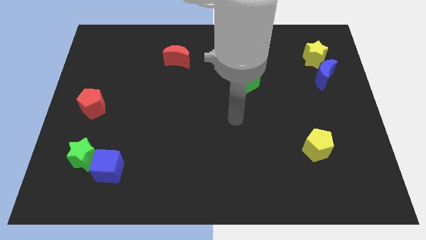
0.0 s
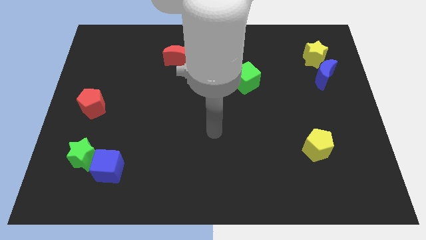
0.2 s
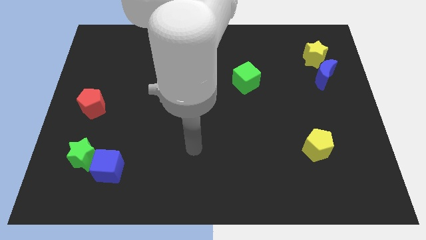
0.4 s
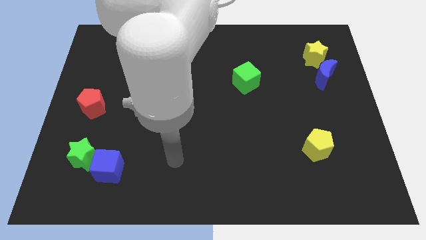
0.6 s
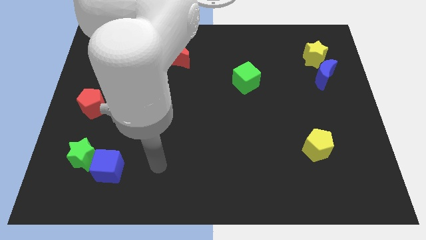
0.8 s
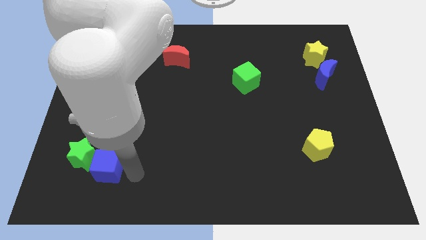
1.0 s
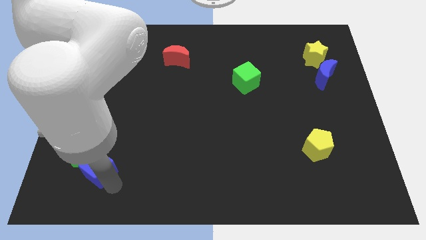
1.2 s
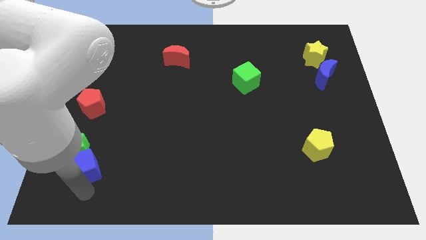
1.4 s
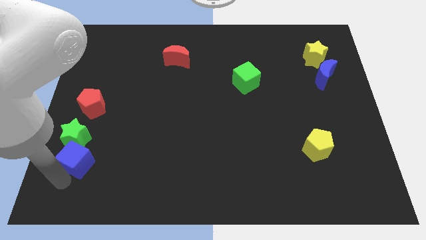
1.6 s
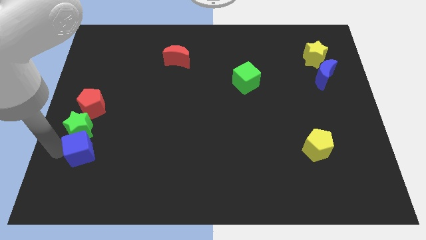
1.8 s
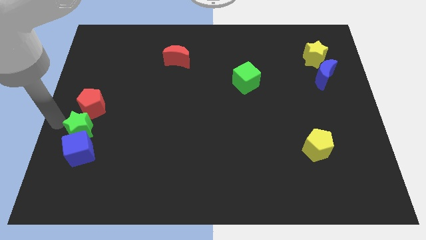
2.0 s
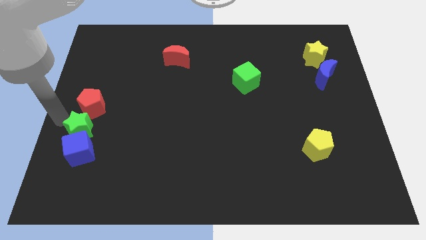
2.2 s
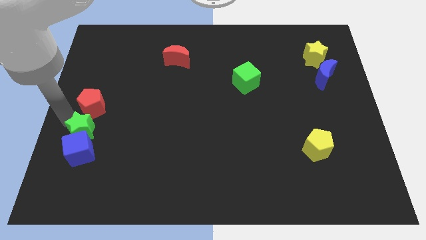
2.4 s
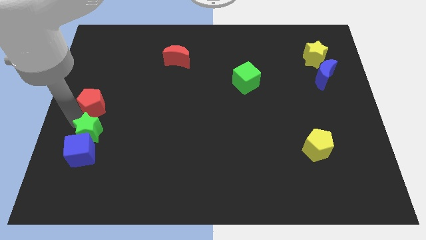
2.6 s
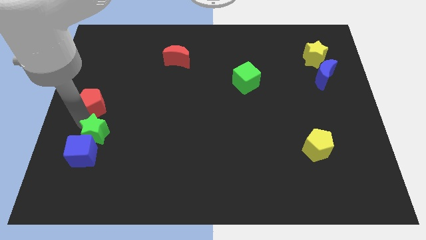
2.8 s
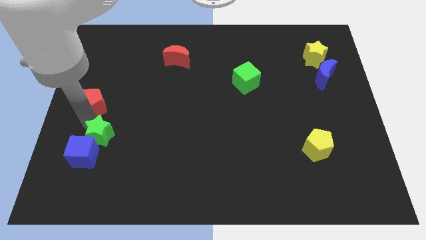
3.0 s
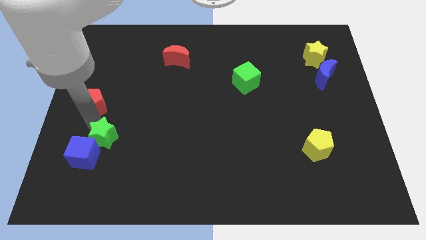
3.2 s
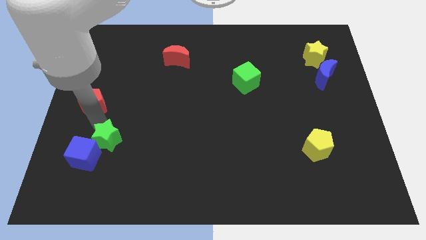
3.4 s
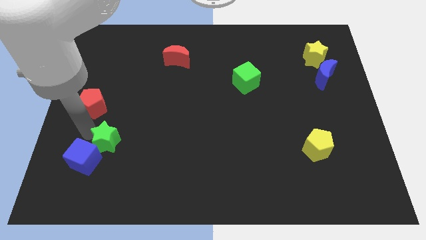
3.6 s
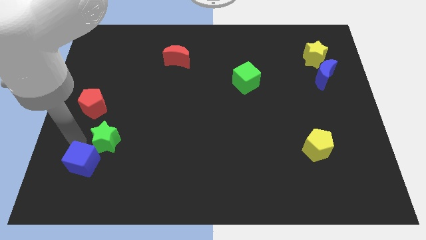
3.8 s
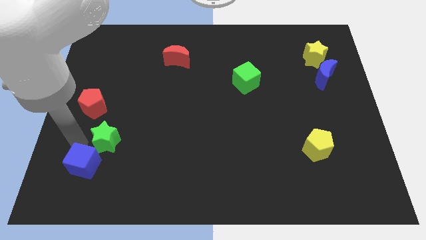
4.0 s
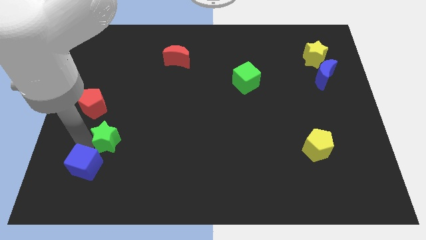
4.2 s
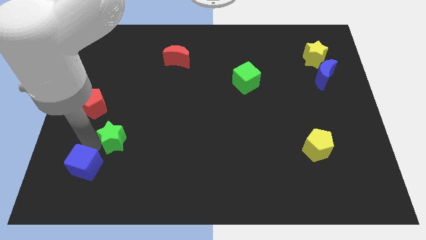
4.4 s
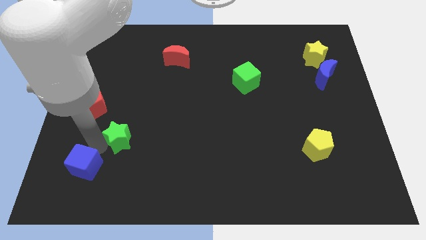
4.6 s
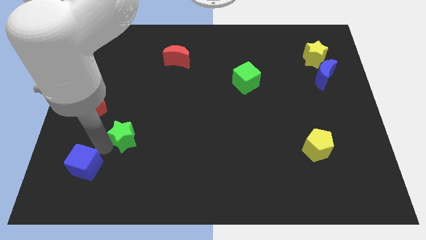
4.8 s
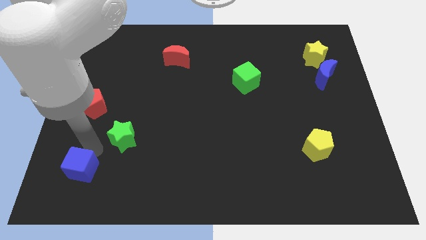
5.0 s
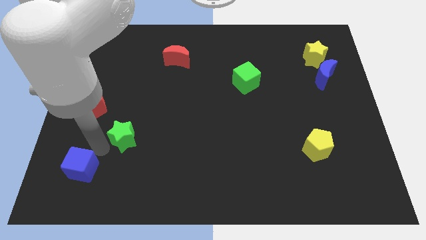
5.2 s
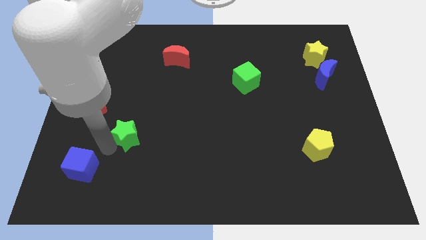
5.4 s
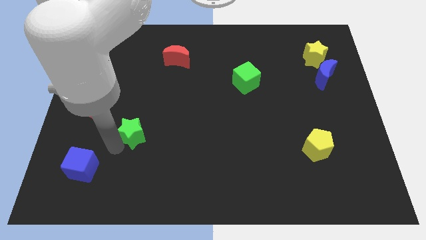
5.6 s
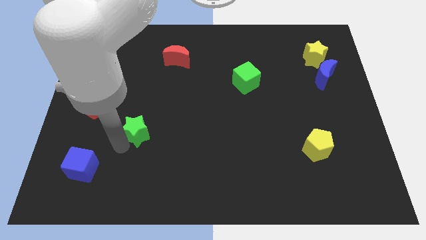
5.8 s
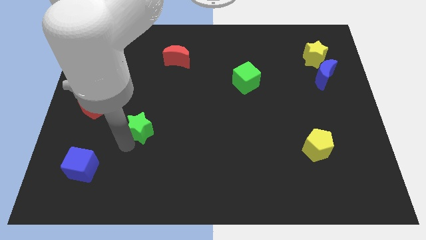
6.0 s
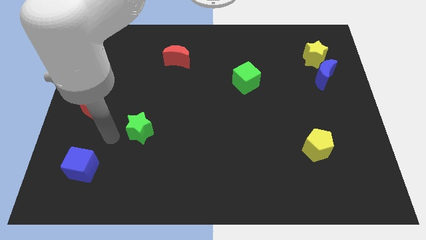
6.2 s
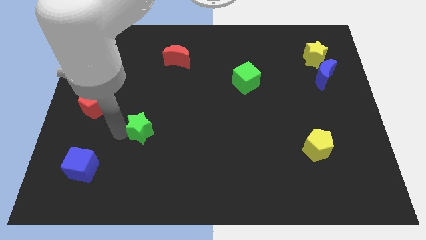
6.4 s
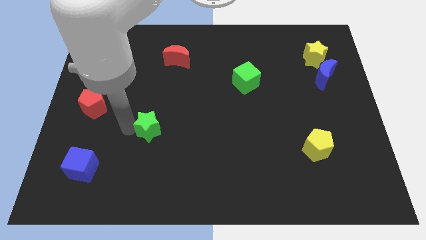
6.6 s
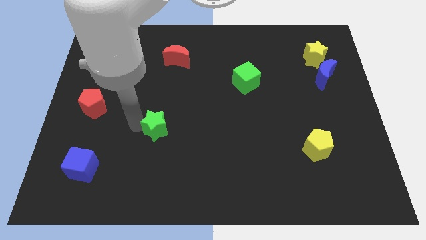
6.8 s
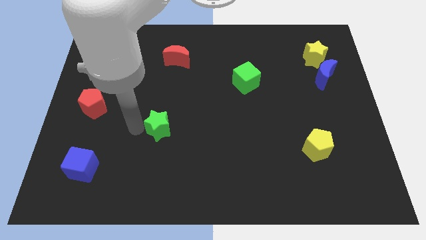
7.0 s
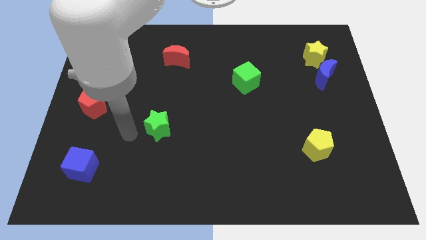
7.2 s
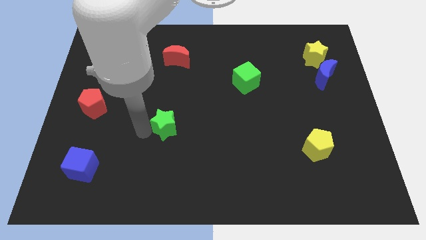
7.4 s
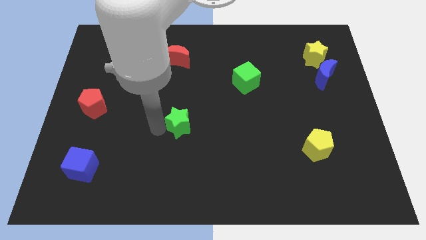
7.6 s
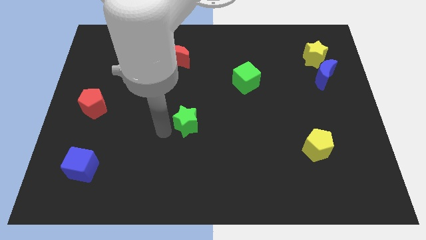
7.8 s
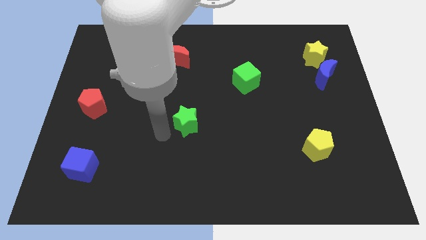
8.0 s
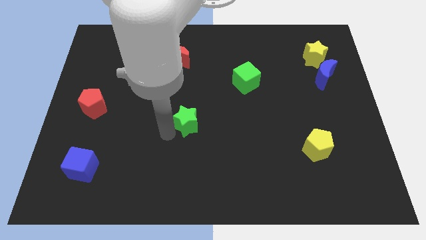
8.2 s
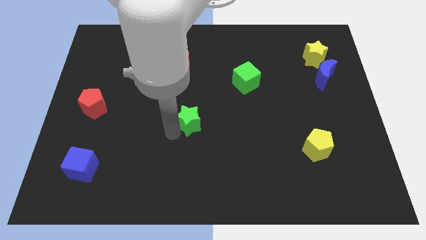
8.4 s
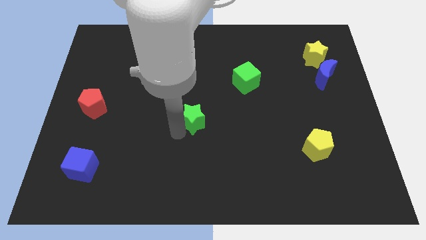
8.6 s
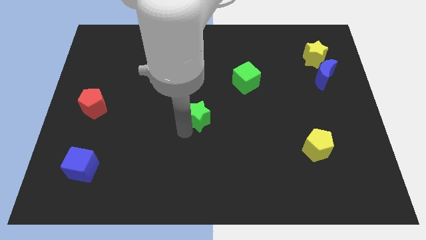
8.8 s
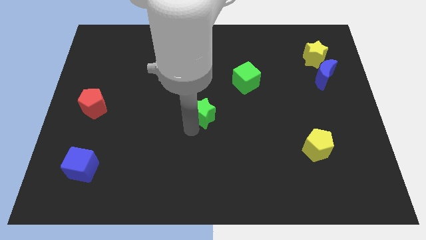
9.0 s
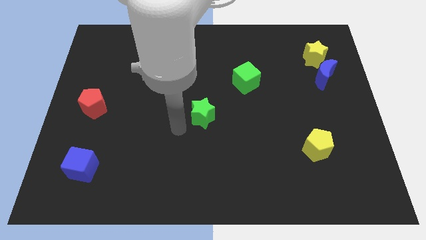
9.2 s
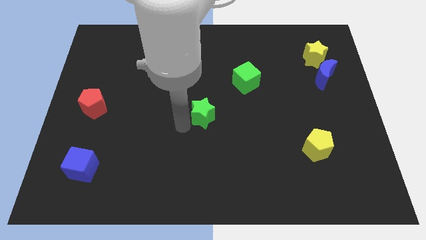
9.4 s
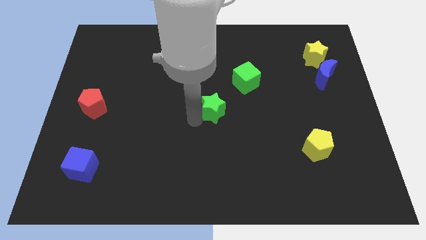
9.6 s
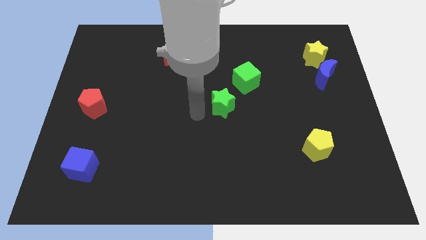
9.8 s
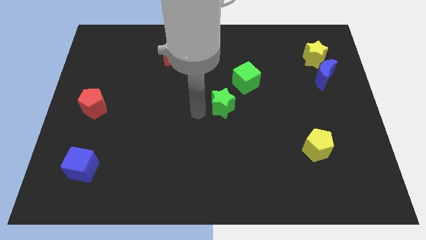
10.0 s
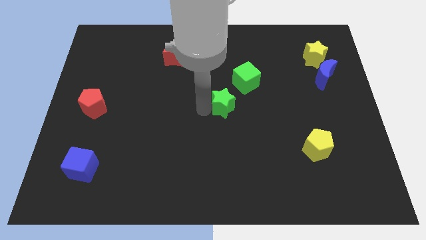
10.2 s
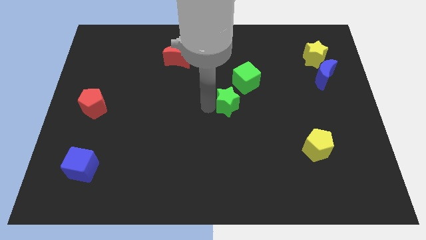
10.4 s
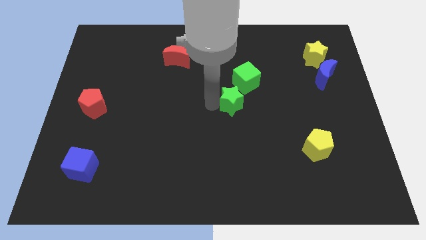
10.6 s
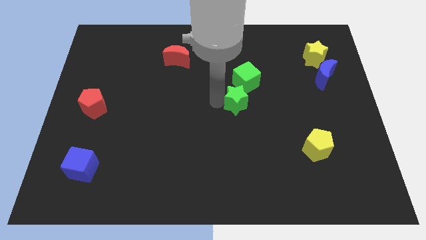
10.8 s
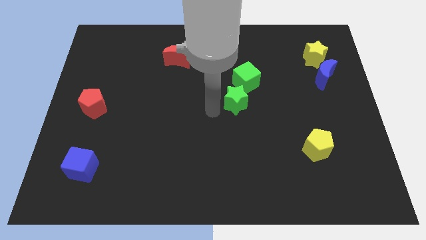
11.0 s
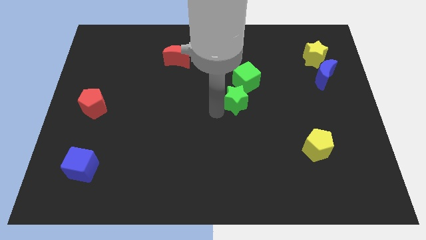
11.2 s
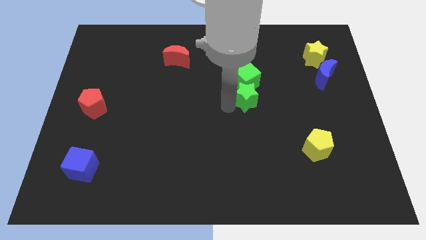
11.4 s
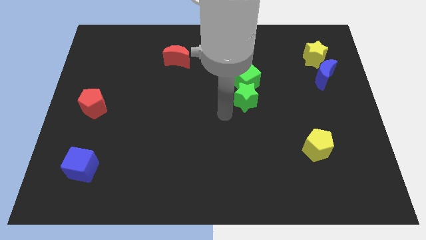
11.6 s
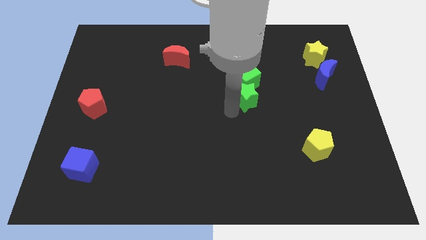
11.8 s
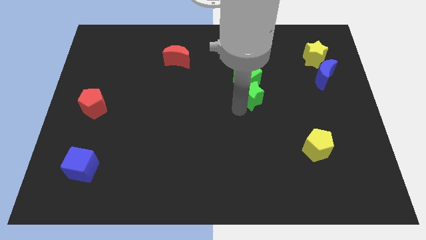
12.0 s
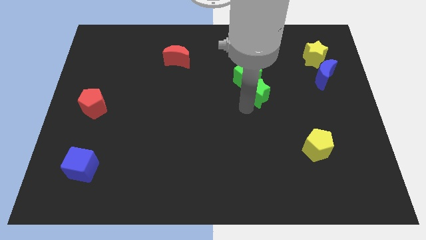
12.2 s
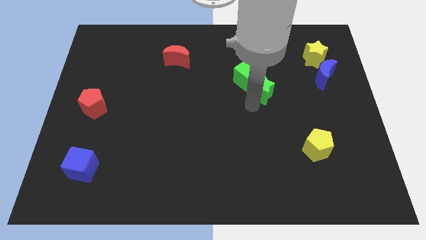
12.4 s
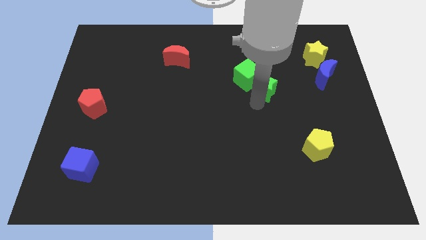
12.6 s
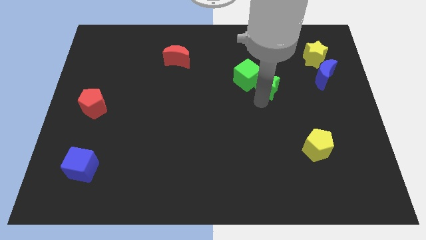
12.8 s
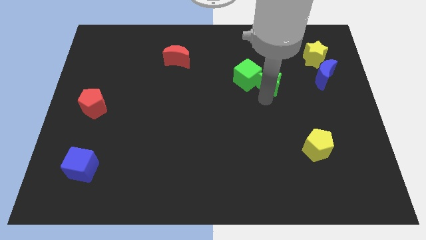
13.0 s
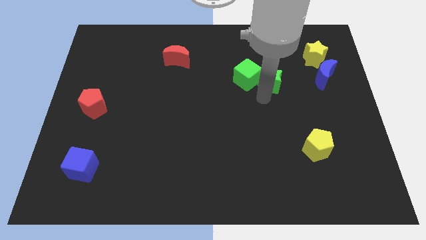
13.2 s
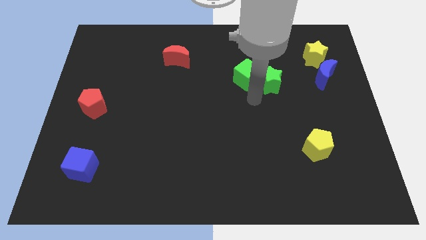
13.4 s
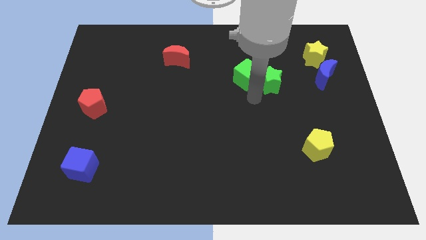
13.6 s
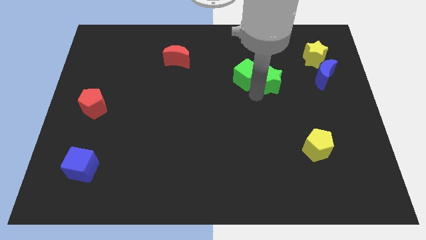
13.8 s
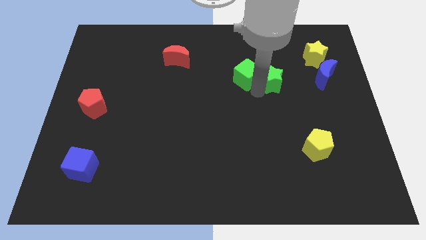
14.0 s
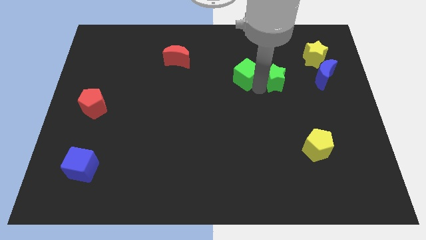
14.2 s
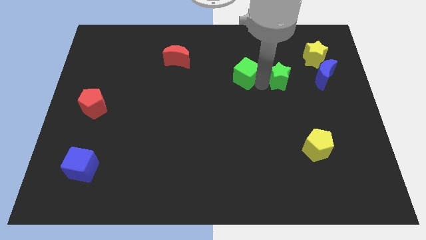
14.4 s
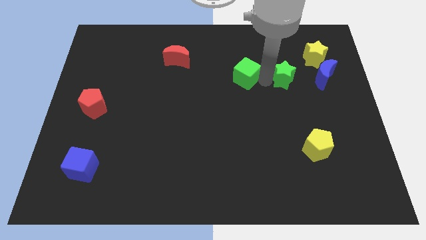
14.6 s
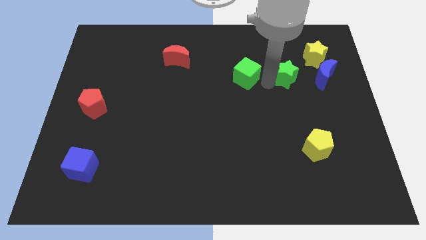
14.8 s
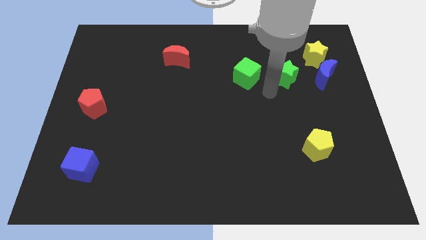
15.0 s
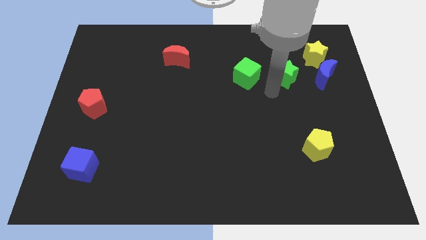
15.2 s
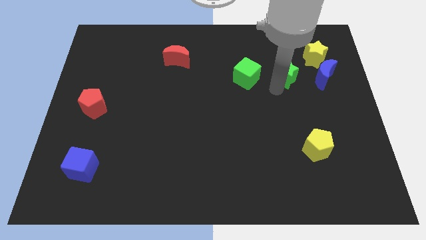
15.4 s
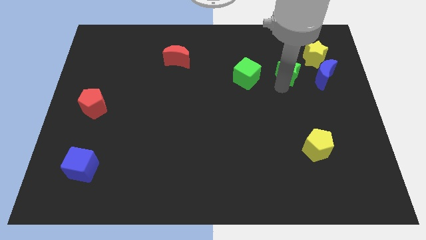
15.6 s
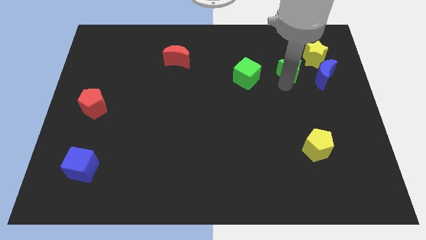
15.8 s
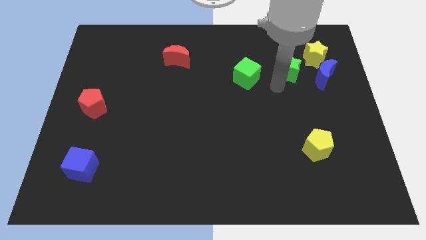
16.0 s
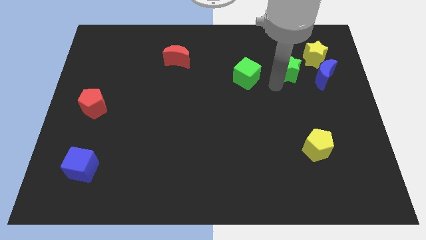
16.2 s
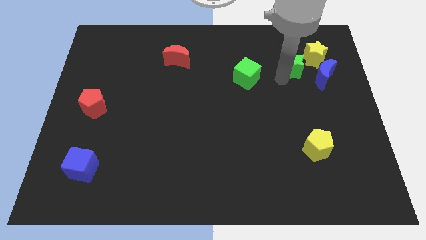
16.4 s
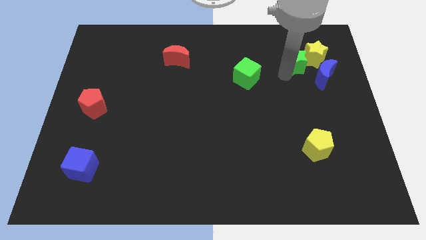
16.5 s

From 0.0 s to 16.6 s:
move the green star towards the yellow star
